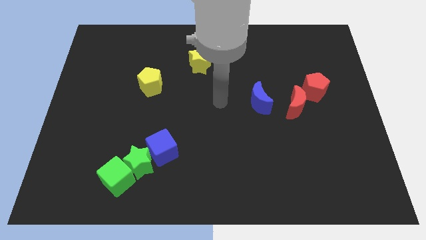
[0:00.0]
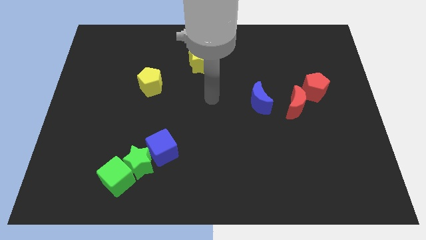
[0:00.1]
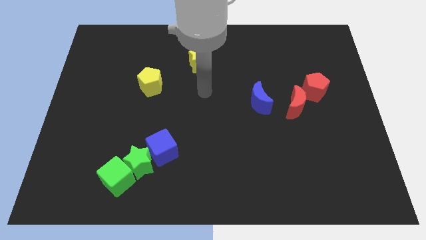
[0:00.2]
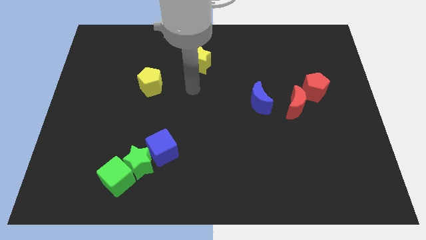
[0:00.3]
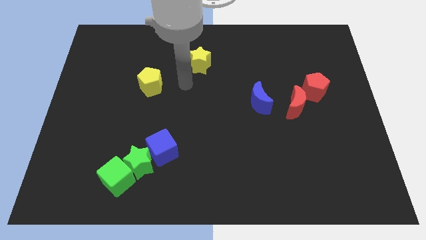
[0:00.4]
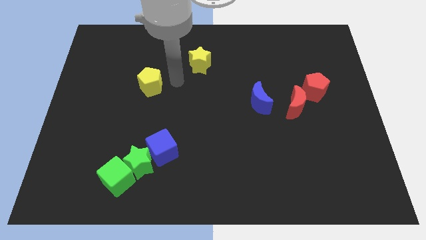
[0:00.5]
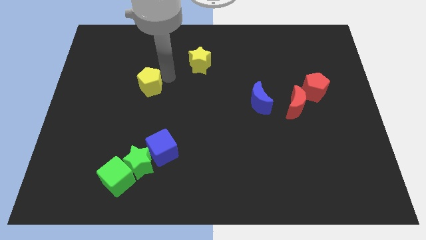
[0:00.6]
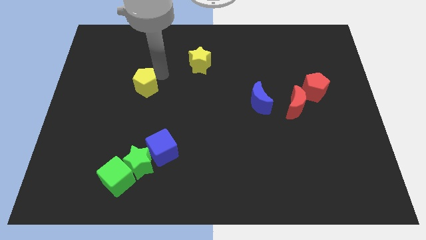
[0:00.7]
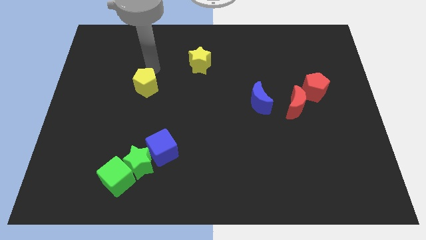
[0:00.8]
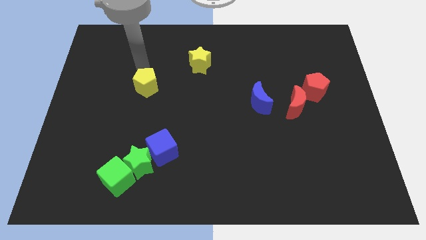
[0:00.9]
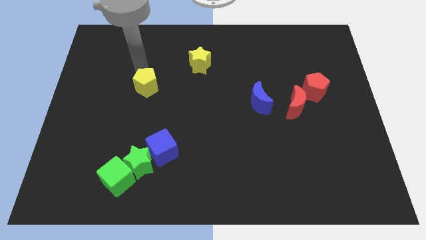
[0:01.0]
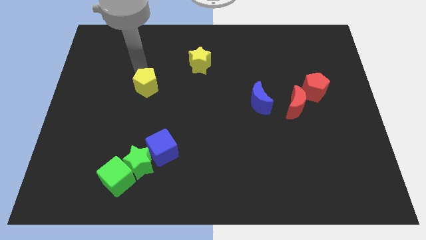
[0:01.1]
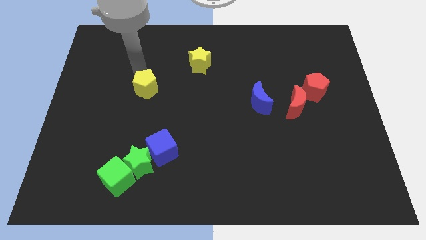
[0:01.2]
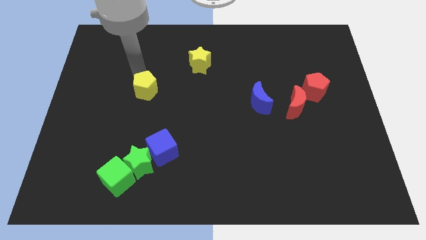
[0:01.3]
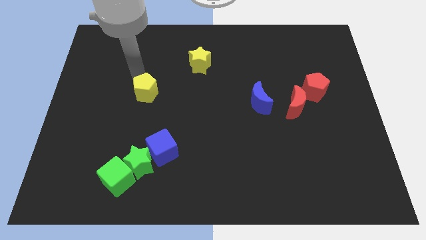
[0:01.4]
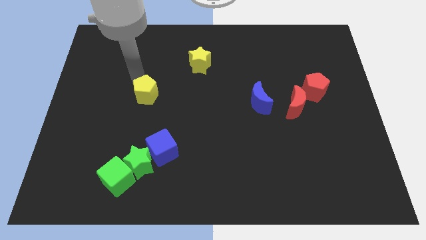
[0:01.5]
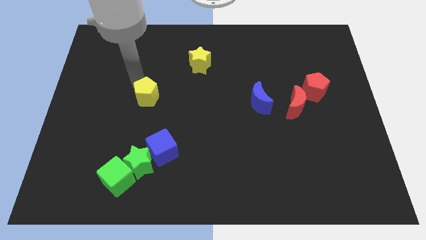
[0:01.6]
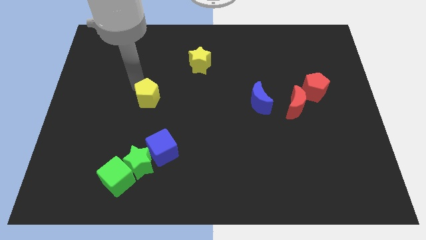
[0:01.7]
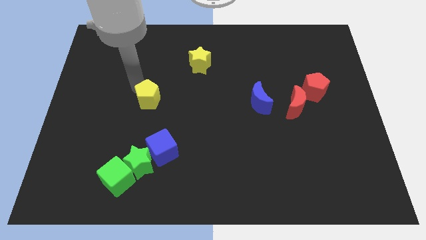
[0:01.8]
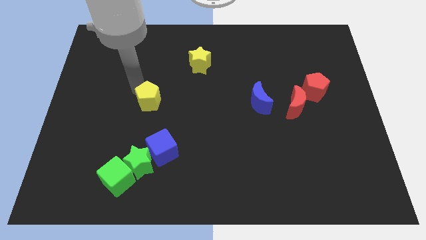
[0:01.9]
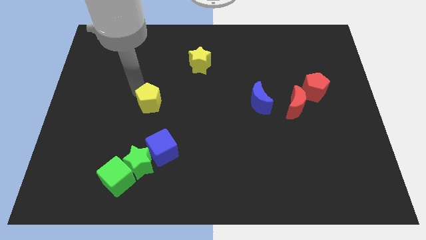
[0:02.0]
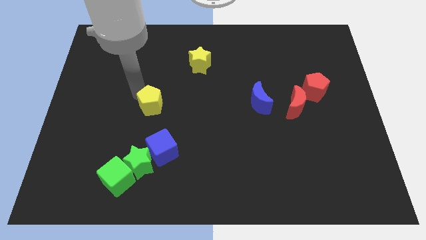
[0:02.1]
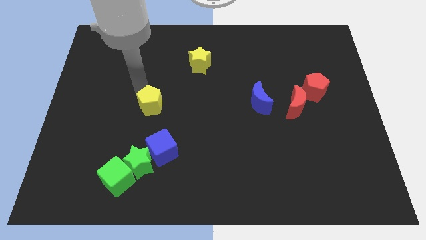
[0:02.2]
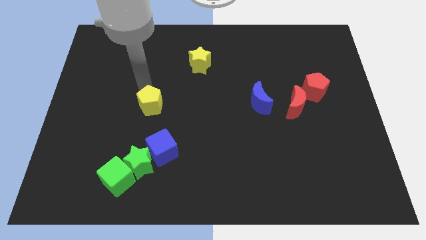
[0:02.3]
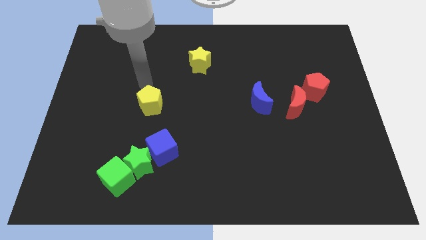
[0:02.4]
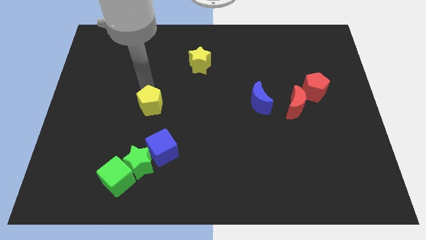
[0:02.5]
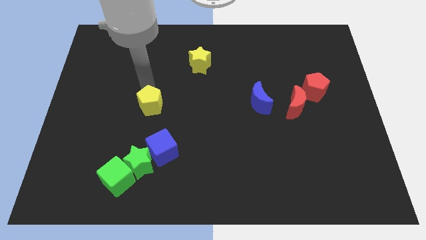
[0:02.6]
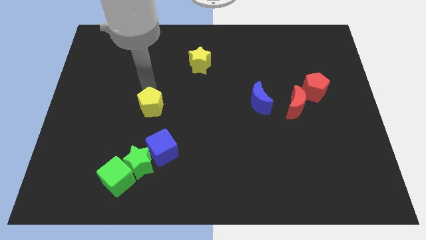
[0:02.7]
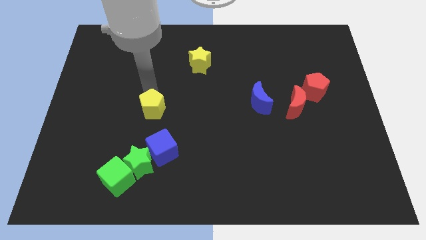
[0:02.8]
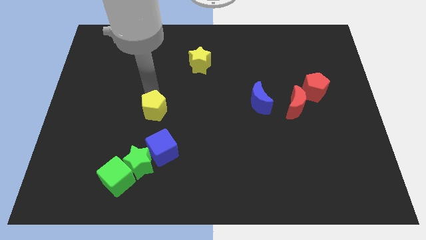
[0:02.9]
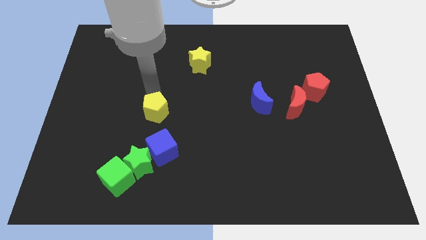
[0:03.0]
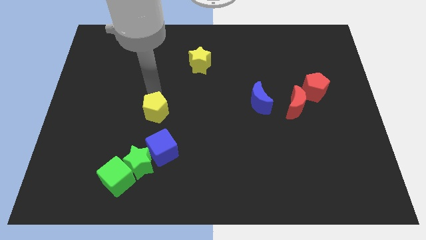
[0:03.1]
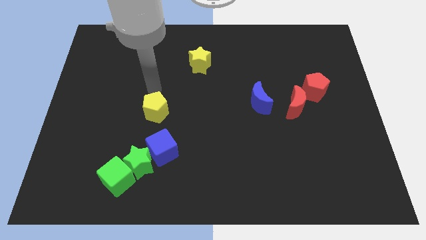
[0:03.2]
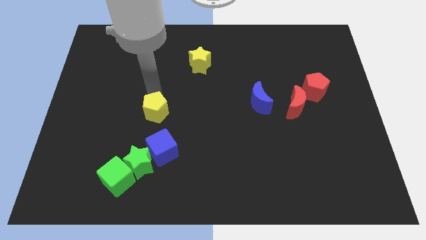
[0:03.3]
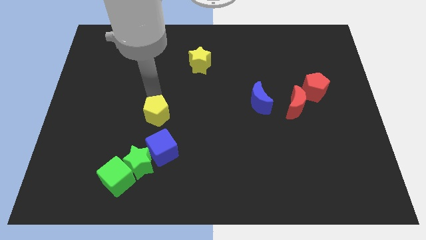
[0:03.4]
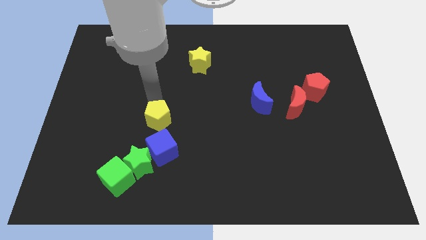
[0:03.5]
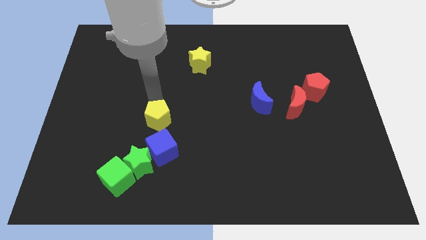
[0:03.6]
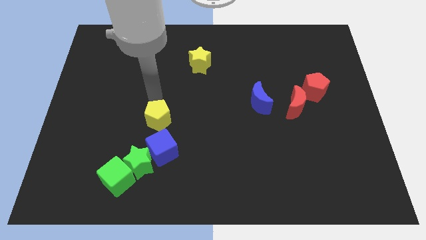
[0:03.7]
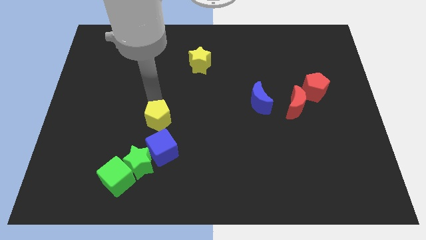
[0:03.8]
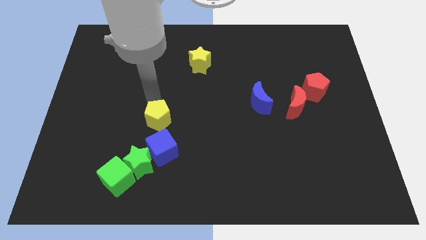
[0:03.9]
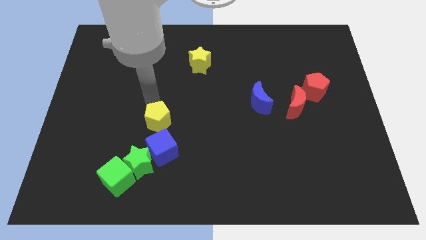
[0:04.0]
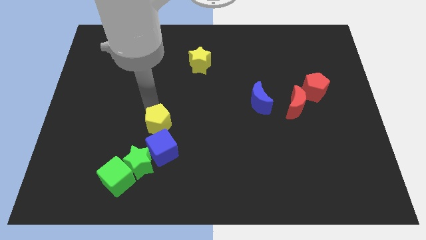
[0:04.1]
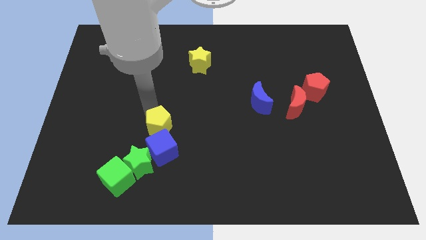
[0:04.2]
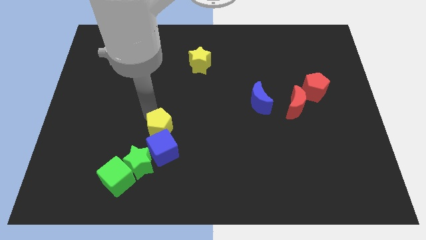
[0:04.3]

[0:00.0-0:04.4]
slide the yellow pentagon close to the blue cube

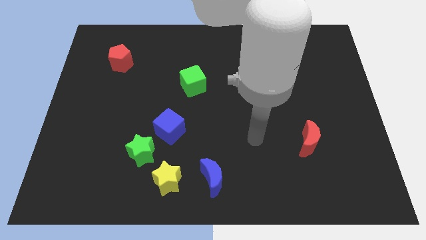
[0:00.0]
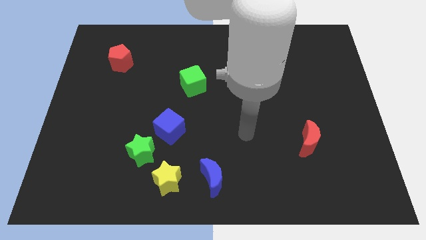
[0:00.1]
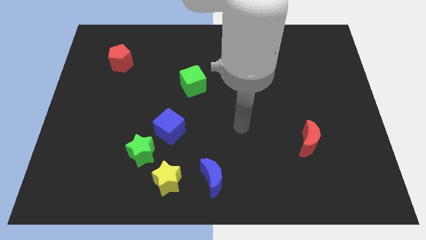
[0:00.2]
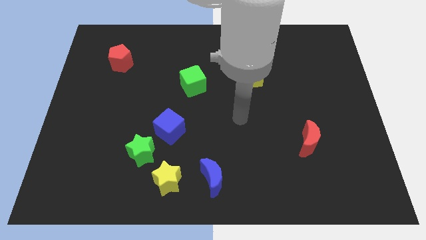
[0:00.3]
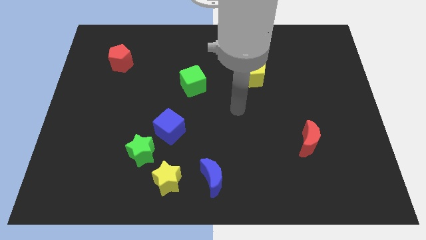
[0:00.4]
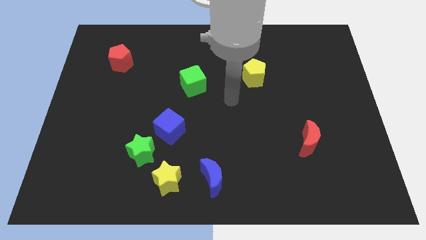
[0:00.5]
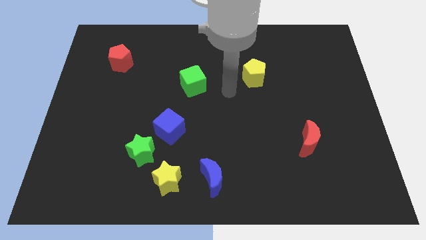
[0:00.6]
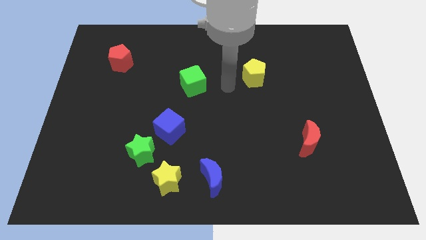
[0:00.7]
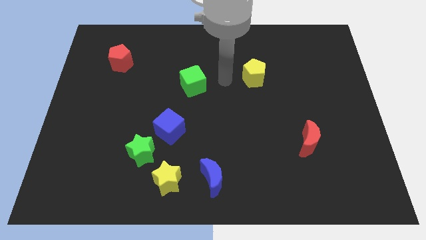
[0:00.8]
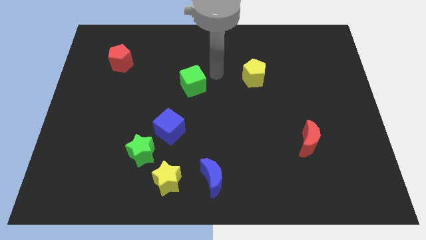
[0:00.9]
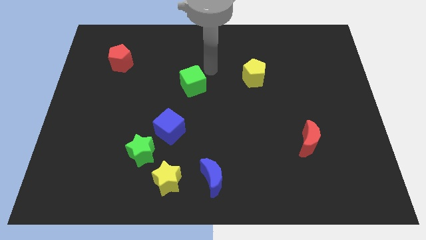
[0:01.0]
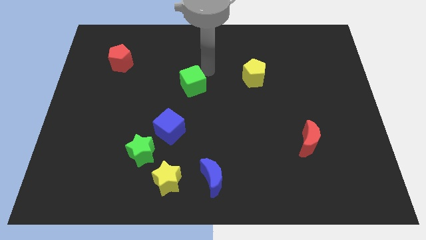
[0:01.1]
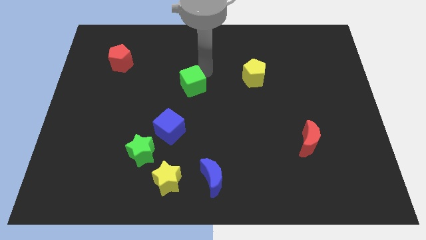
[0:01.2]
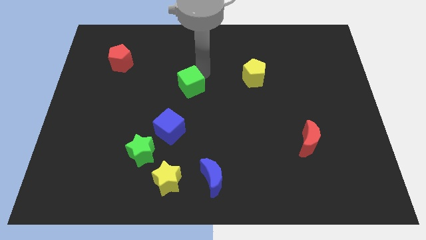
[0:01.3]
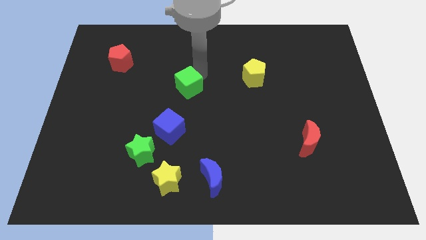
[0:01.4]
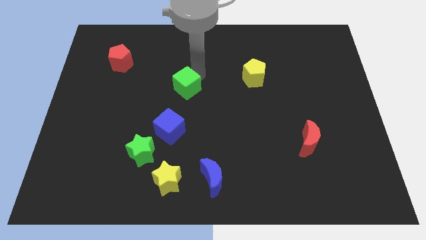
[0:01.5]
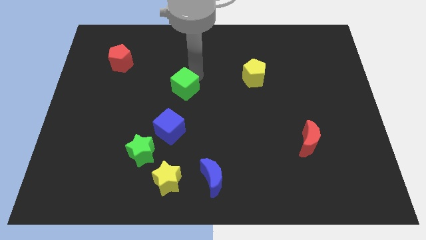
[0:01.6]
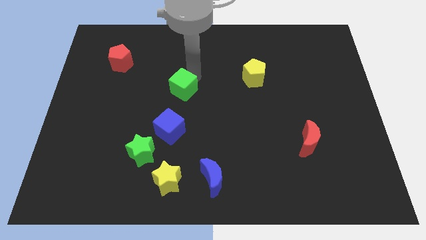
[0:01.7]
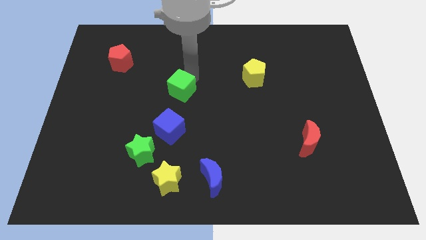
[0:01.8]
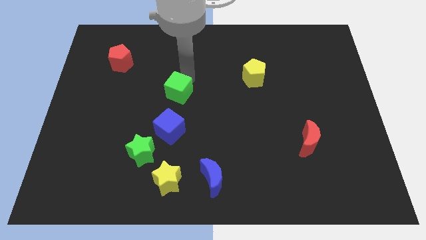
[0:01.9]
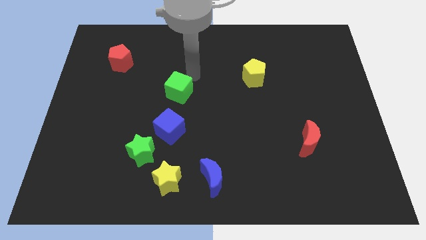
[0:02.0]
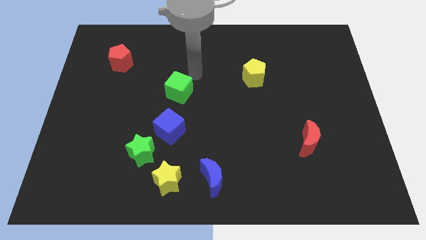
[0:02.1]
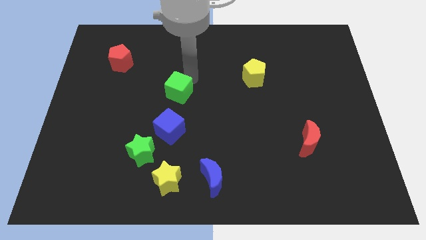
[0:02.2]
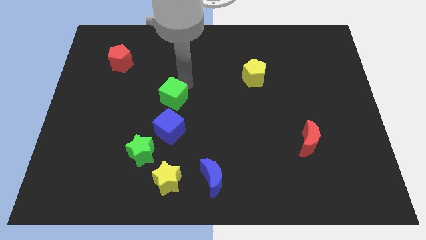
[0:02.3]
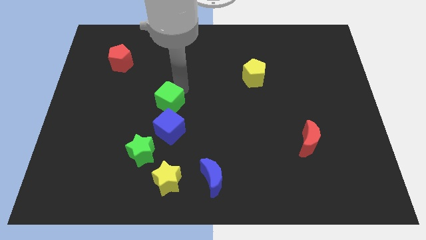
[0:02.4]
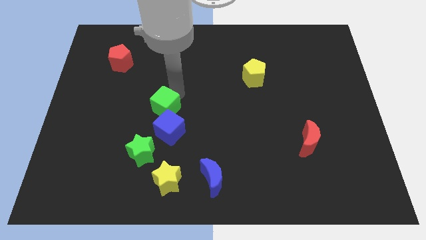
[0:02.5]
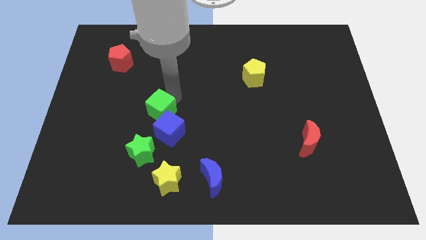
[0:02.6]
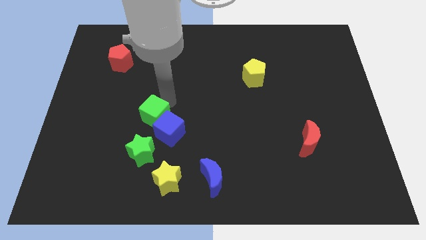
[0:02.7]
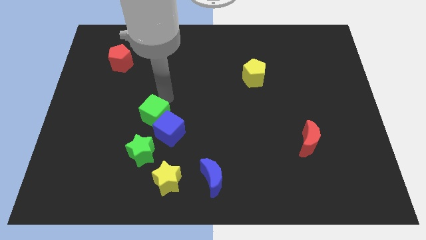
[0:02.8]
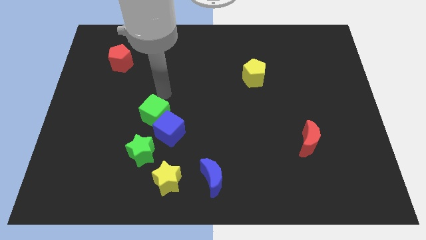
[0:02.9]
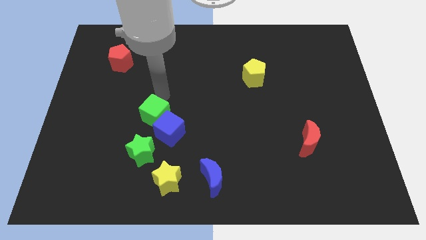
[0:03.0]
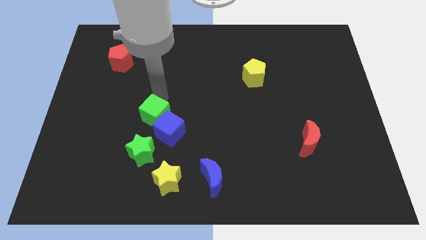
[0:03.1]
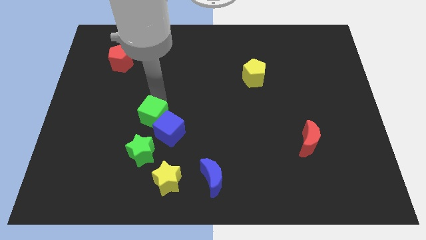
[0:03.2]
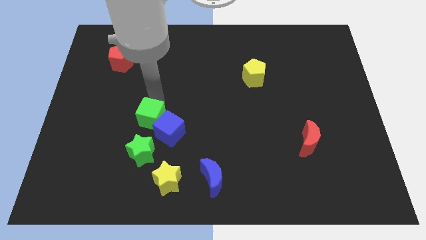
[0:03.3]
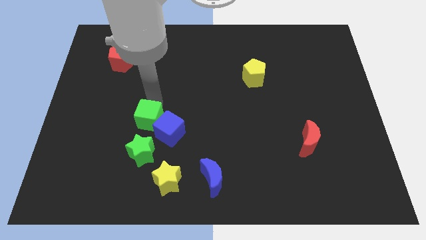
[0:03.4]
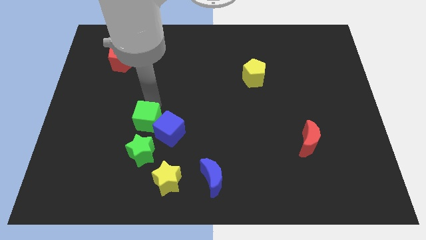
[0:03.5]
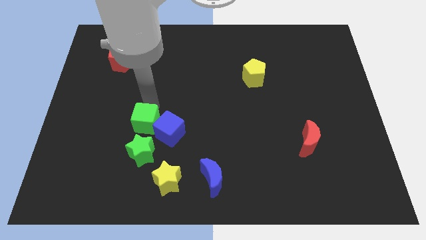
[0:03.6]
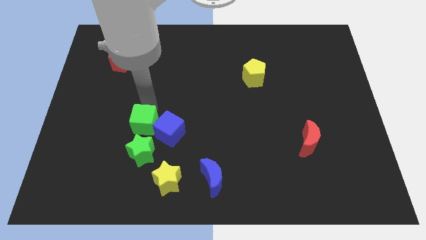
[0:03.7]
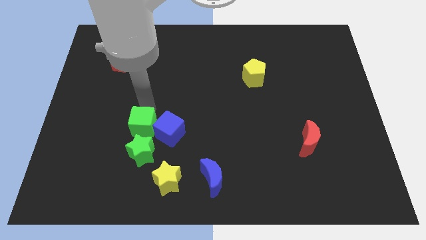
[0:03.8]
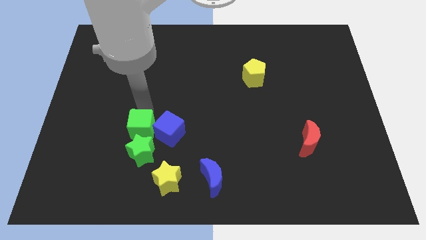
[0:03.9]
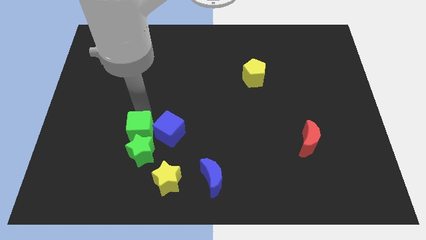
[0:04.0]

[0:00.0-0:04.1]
move the green cube towards the green star
